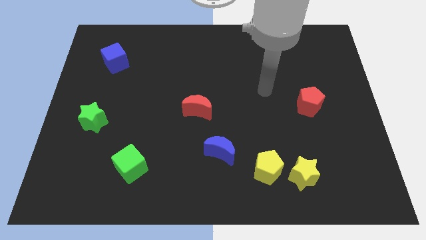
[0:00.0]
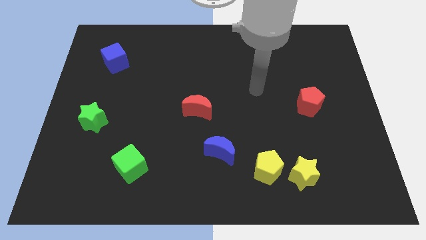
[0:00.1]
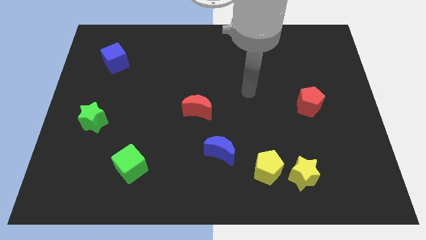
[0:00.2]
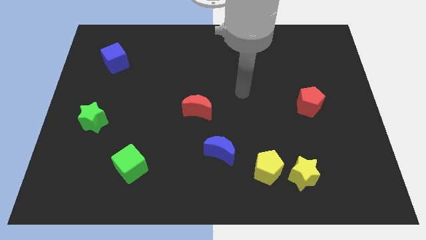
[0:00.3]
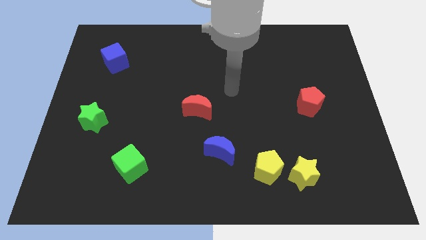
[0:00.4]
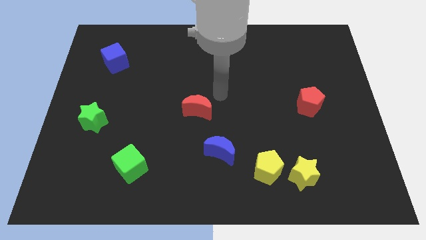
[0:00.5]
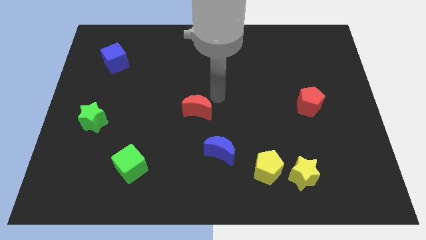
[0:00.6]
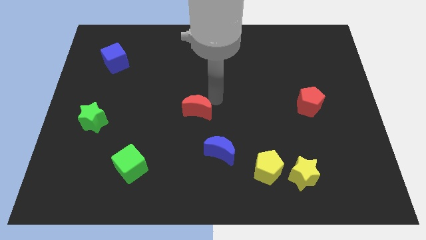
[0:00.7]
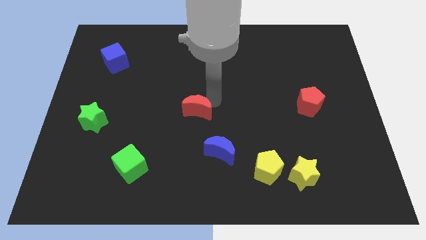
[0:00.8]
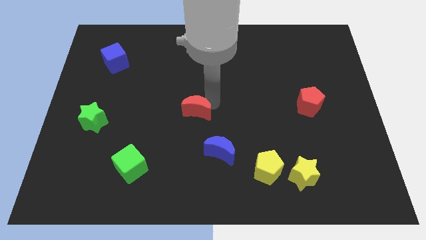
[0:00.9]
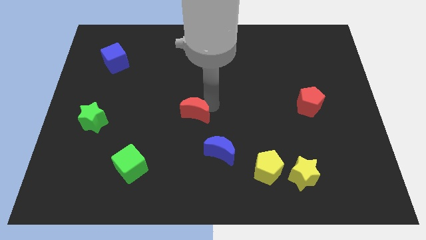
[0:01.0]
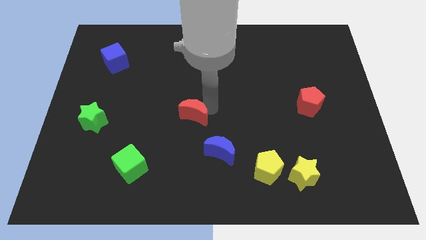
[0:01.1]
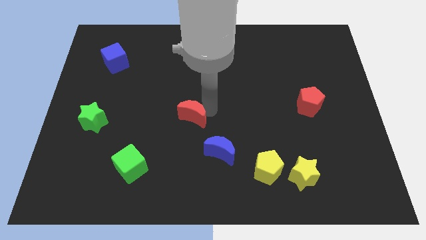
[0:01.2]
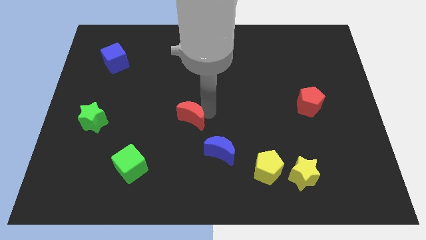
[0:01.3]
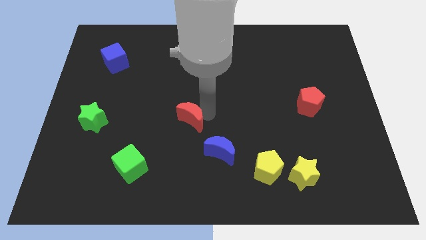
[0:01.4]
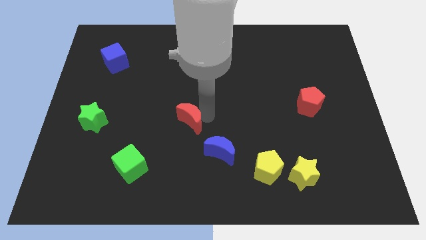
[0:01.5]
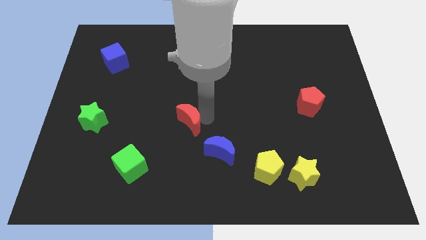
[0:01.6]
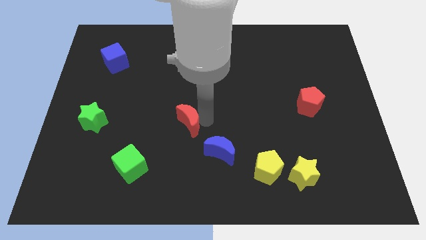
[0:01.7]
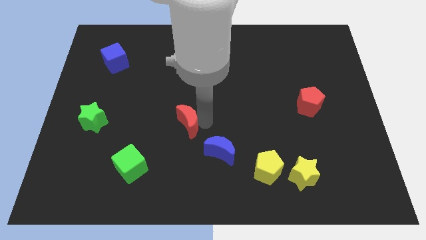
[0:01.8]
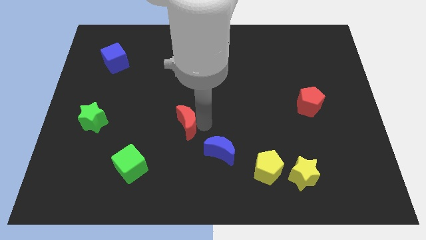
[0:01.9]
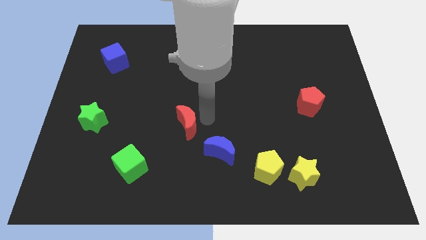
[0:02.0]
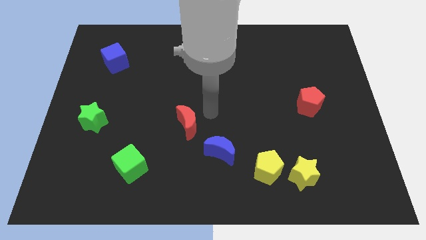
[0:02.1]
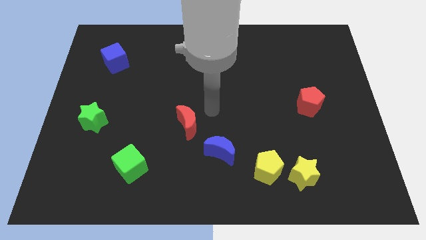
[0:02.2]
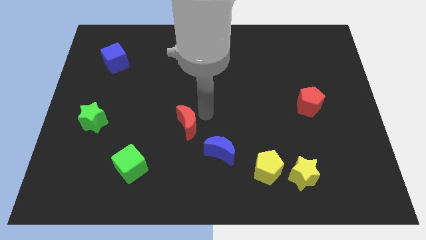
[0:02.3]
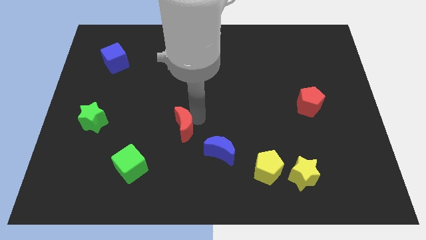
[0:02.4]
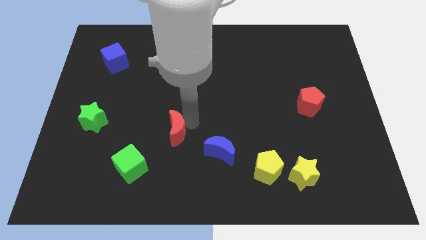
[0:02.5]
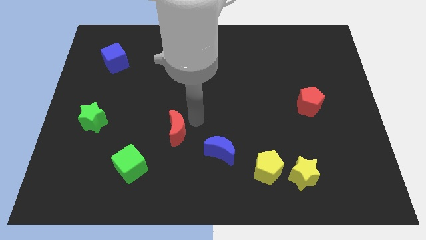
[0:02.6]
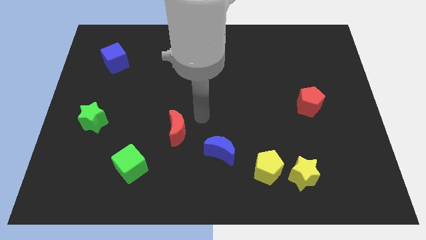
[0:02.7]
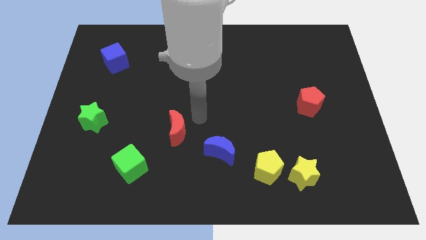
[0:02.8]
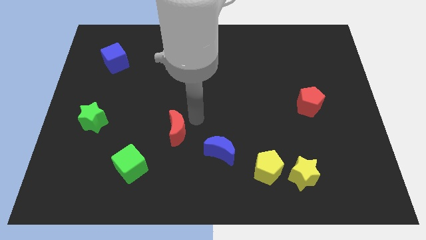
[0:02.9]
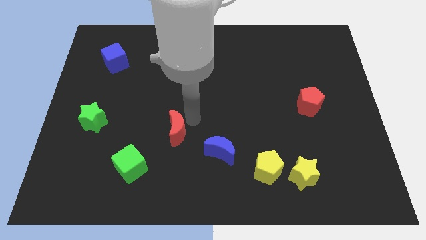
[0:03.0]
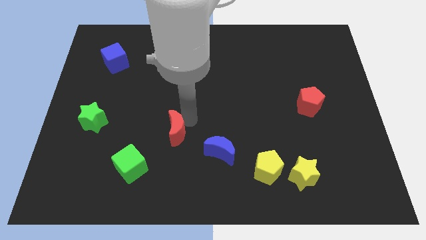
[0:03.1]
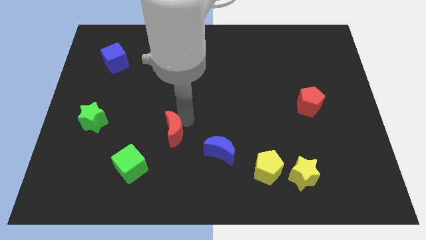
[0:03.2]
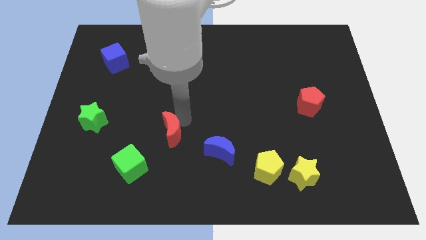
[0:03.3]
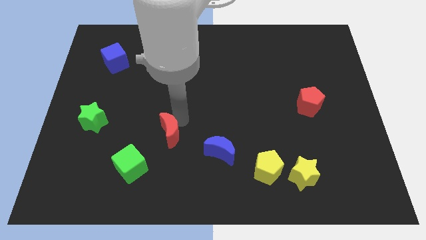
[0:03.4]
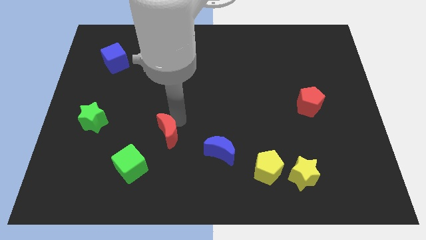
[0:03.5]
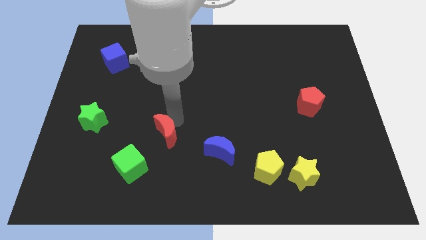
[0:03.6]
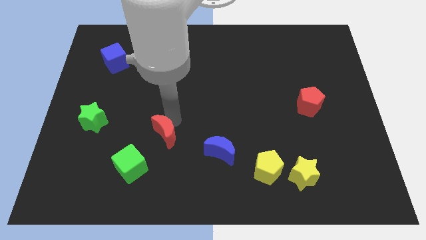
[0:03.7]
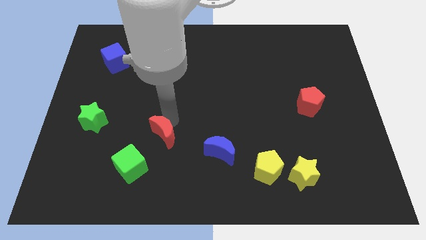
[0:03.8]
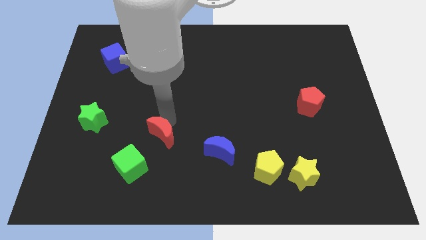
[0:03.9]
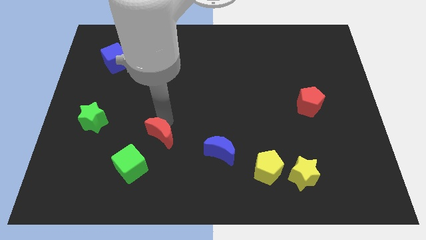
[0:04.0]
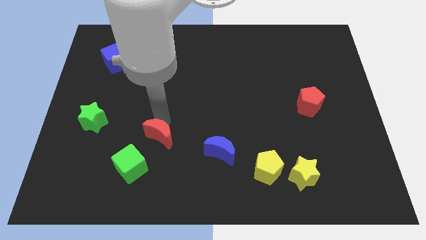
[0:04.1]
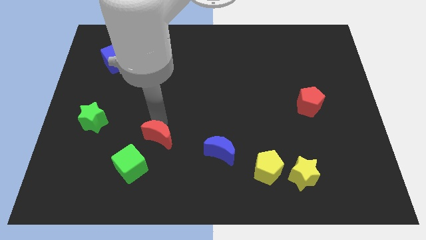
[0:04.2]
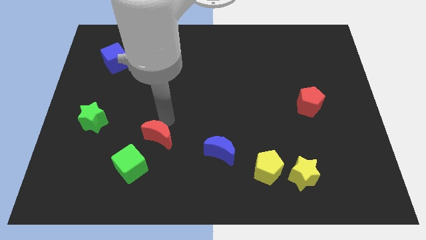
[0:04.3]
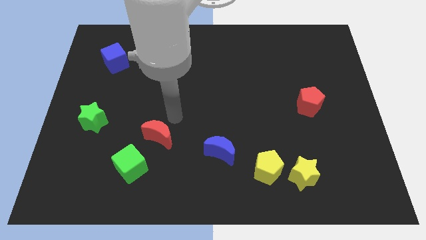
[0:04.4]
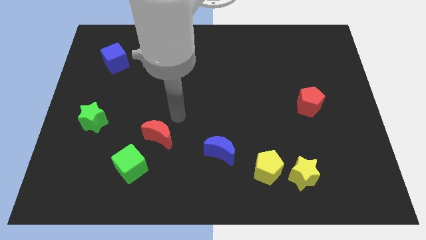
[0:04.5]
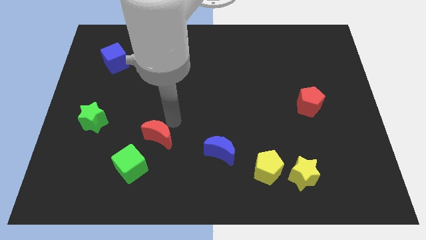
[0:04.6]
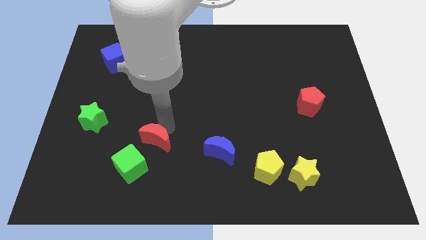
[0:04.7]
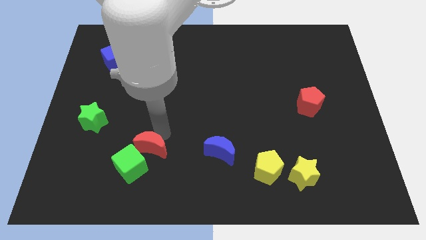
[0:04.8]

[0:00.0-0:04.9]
push the red moon next to the green cube

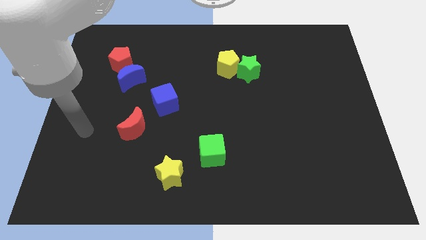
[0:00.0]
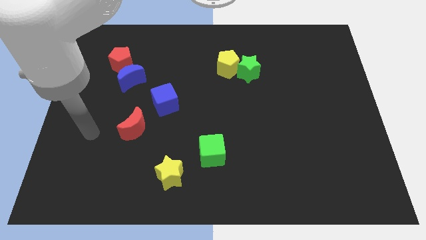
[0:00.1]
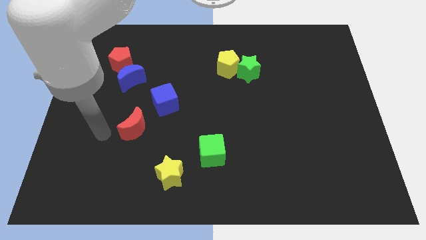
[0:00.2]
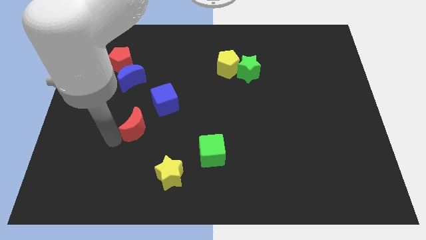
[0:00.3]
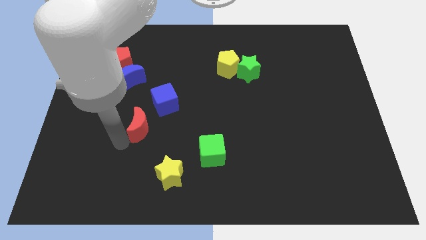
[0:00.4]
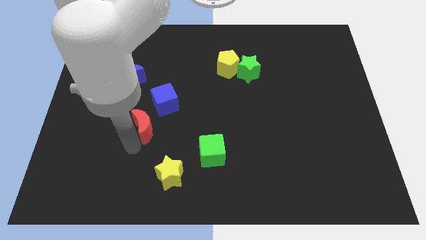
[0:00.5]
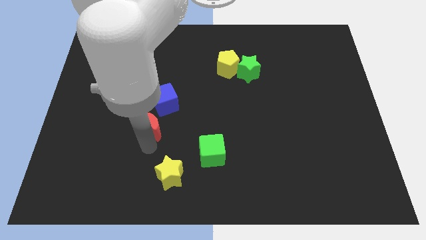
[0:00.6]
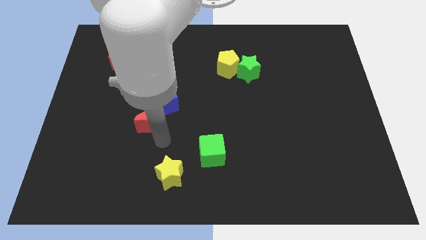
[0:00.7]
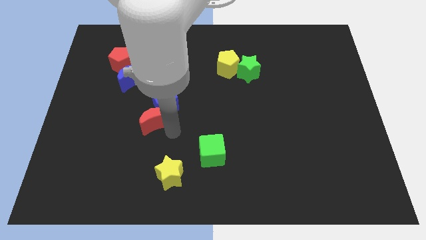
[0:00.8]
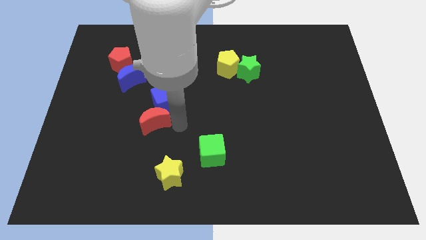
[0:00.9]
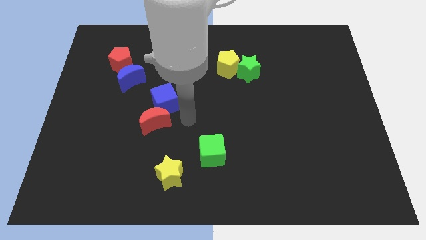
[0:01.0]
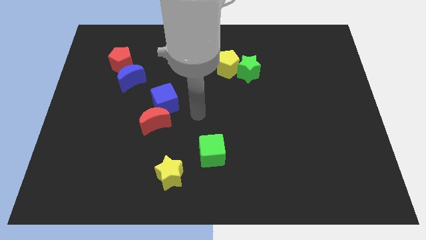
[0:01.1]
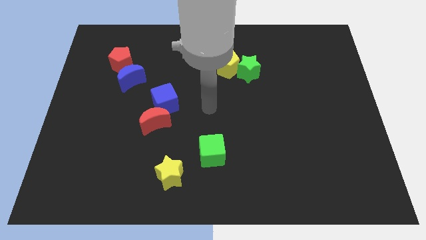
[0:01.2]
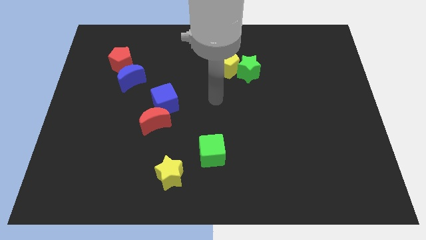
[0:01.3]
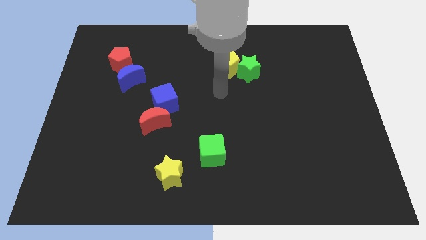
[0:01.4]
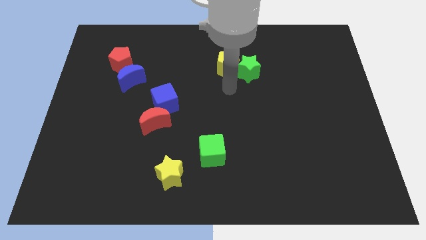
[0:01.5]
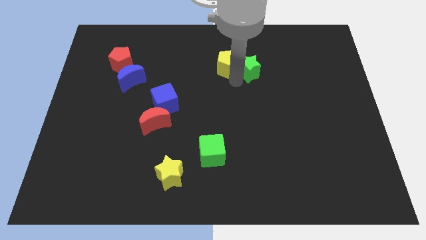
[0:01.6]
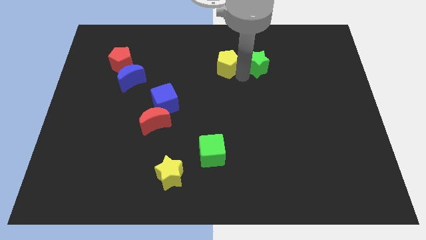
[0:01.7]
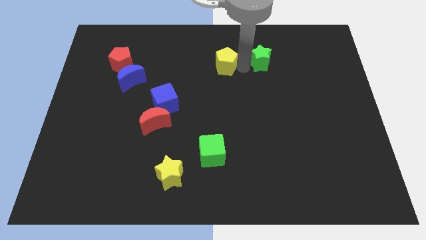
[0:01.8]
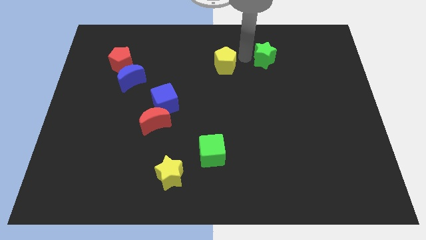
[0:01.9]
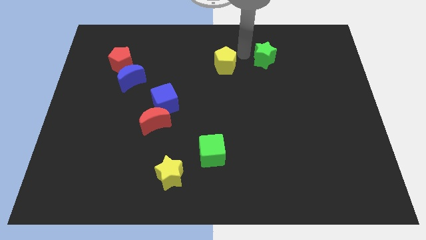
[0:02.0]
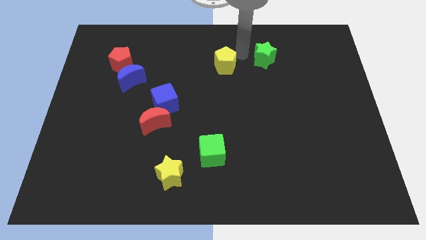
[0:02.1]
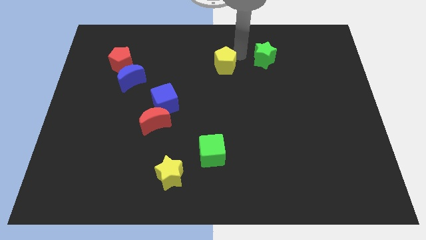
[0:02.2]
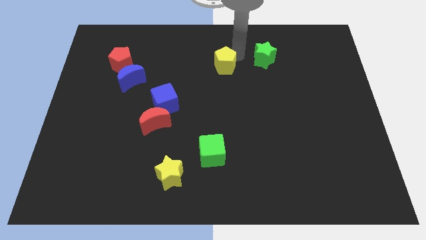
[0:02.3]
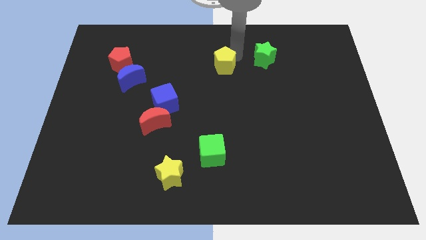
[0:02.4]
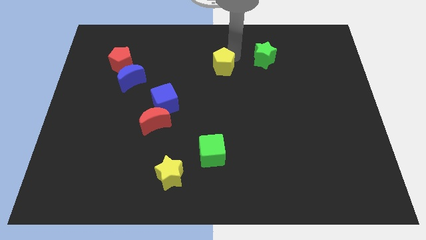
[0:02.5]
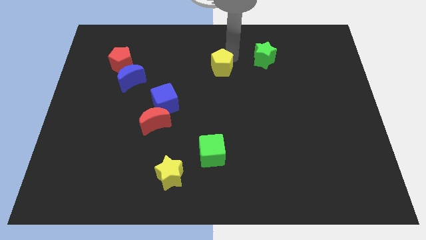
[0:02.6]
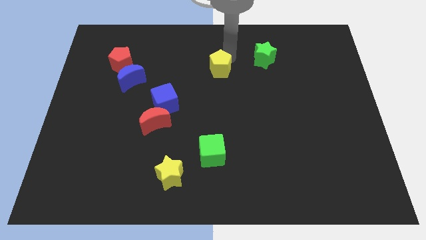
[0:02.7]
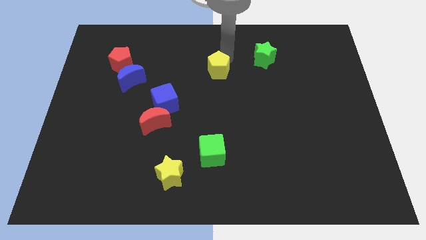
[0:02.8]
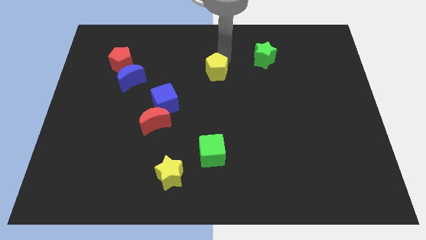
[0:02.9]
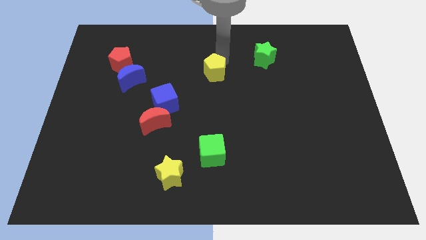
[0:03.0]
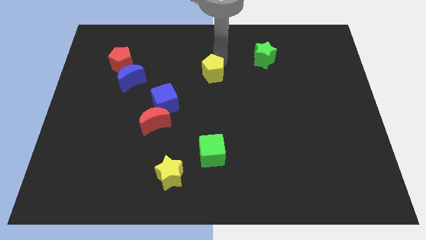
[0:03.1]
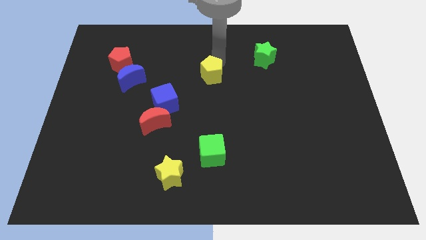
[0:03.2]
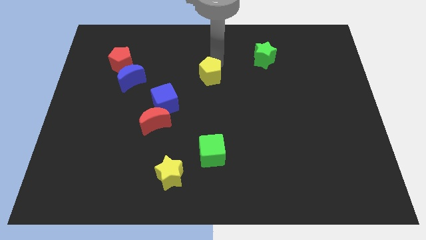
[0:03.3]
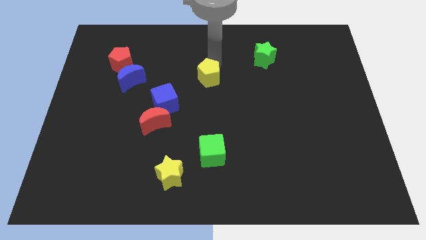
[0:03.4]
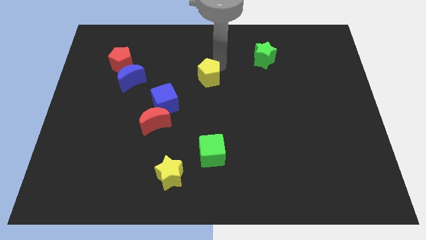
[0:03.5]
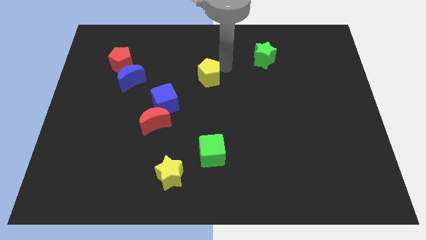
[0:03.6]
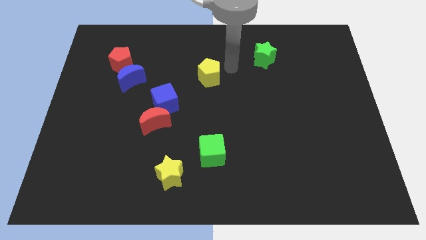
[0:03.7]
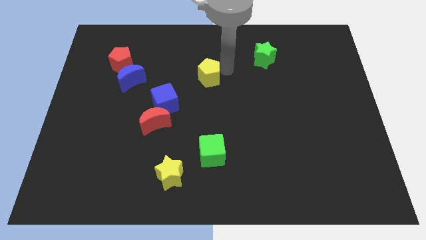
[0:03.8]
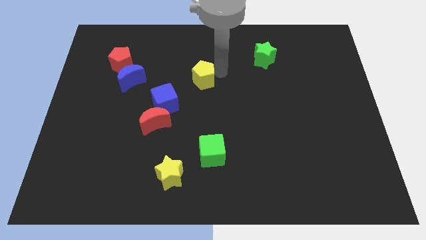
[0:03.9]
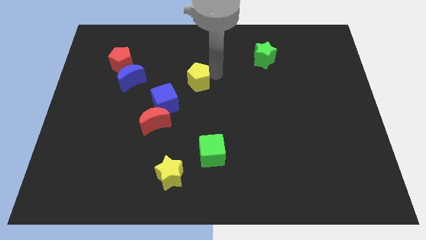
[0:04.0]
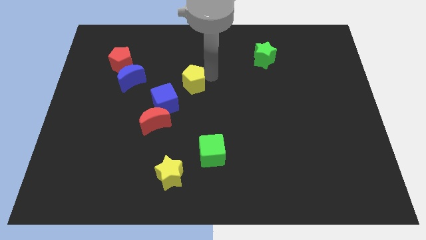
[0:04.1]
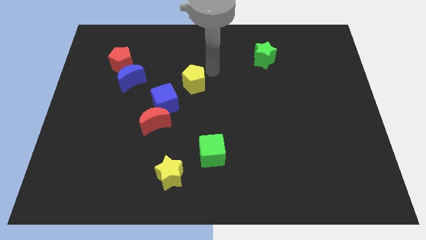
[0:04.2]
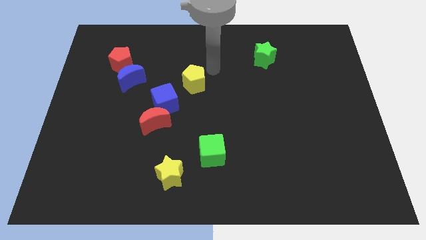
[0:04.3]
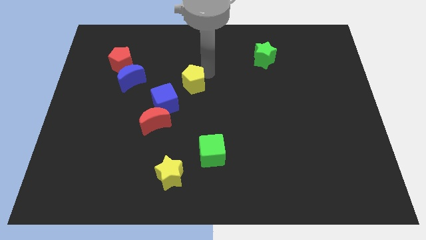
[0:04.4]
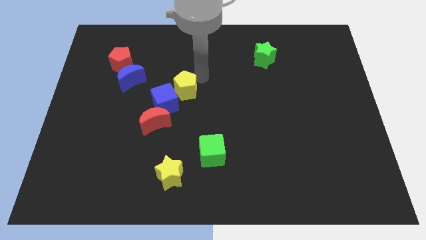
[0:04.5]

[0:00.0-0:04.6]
put the yellow pentagon to the blue cube
